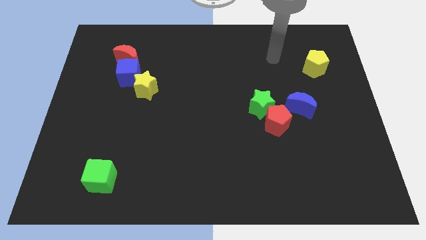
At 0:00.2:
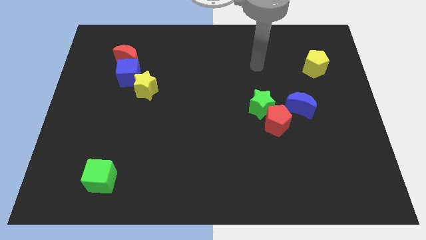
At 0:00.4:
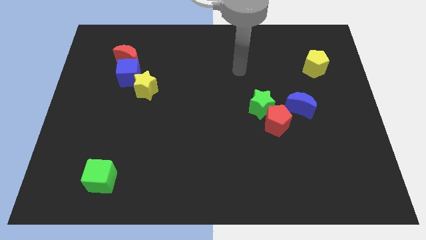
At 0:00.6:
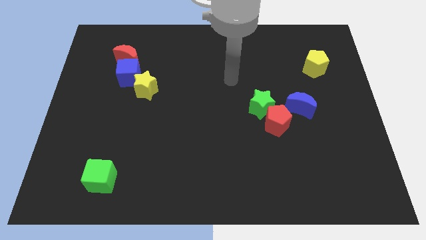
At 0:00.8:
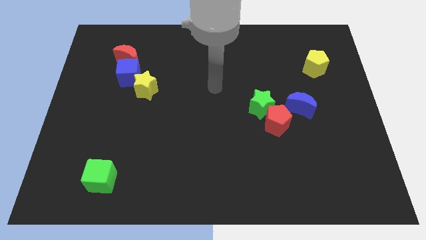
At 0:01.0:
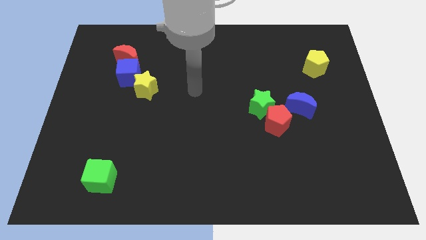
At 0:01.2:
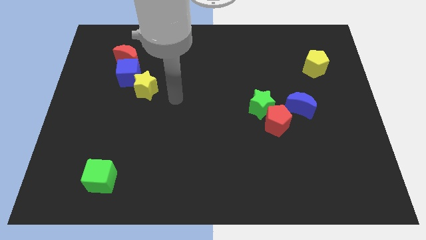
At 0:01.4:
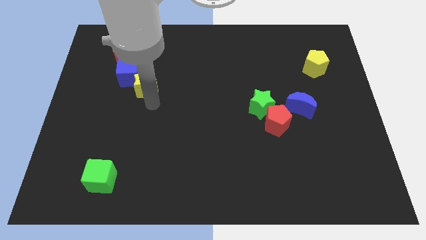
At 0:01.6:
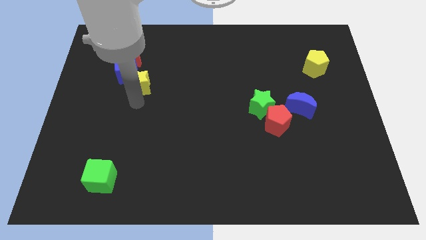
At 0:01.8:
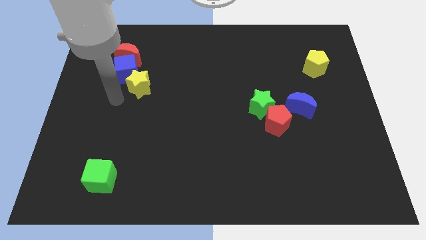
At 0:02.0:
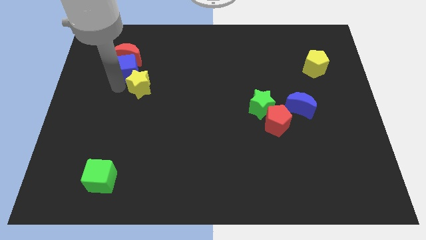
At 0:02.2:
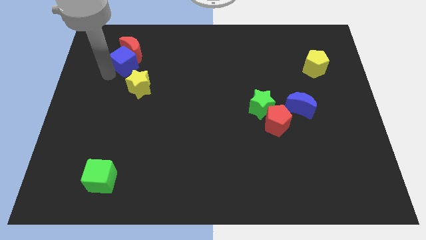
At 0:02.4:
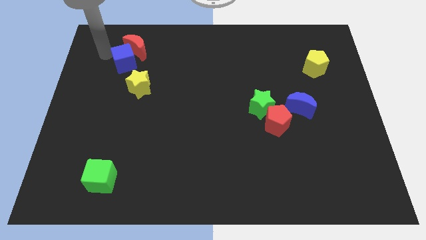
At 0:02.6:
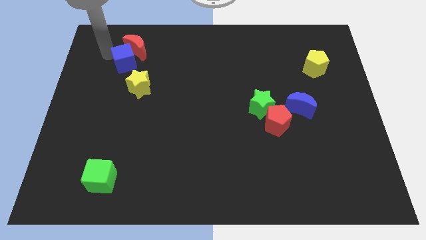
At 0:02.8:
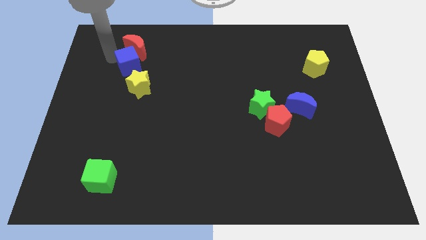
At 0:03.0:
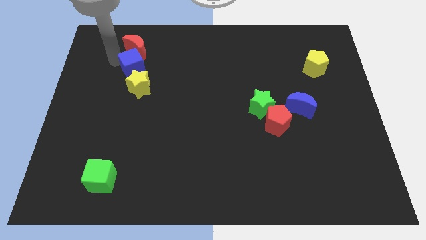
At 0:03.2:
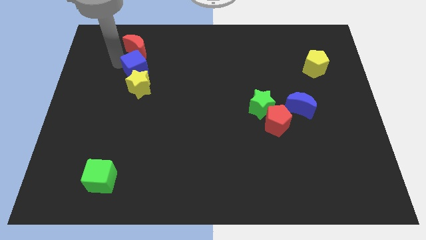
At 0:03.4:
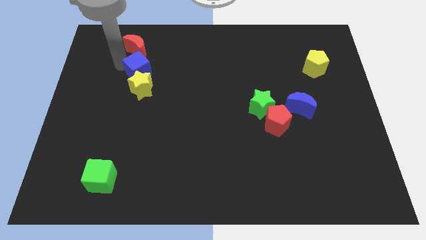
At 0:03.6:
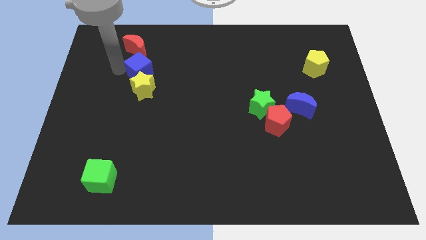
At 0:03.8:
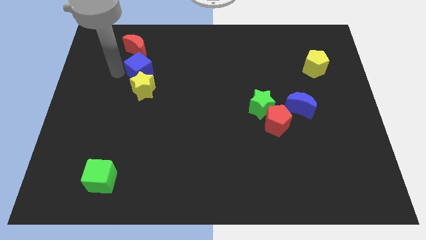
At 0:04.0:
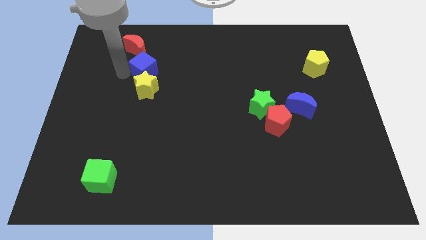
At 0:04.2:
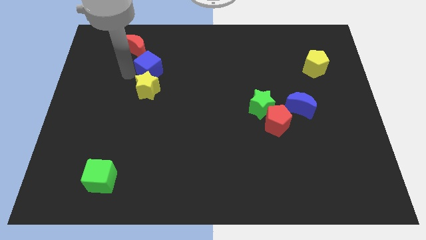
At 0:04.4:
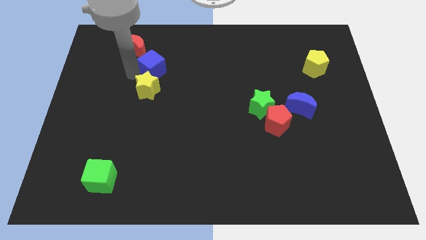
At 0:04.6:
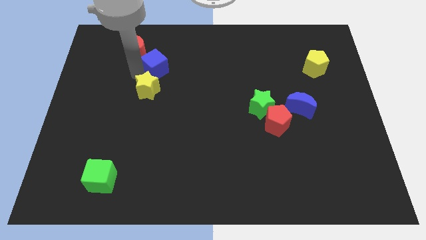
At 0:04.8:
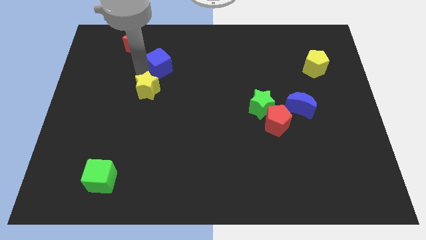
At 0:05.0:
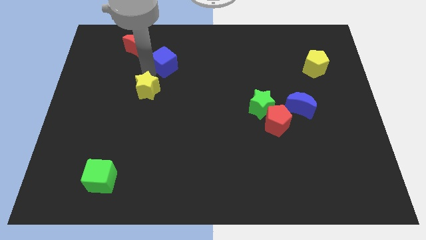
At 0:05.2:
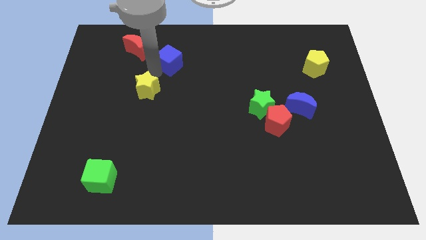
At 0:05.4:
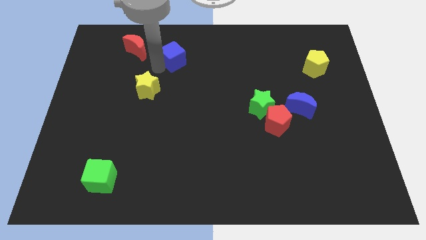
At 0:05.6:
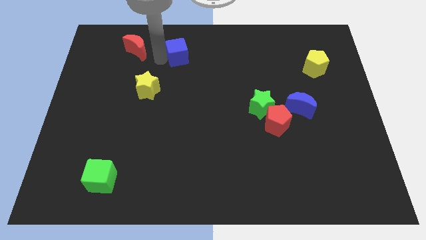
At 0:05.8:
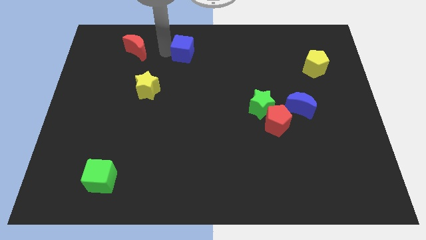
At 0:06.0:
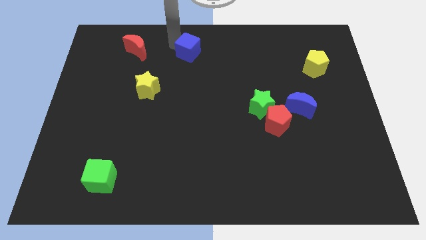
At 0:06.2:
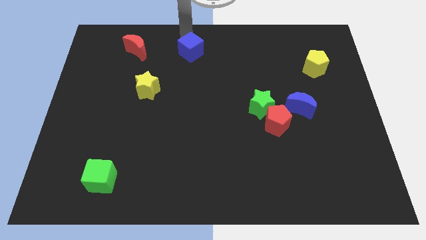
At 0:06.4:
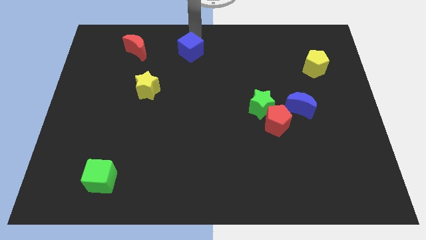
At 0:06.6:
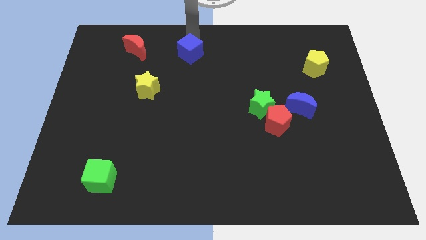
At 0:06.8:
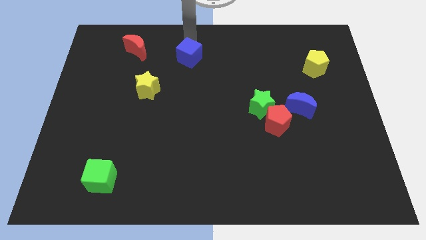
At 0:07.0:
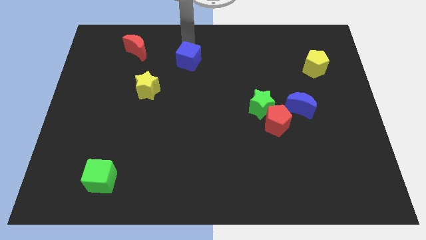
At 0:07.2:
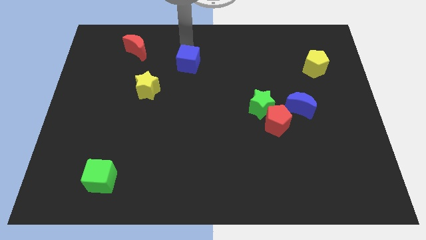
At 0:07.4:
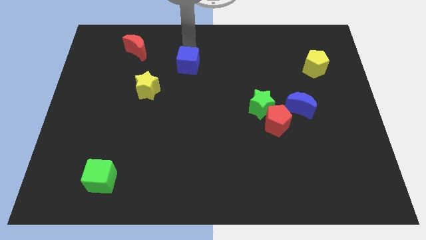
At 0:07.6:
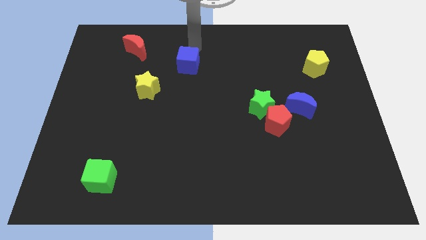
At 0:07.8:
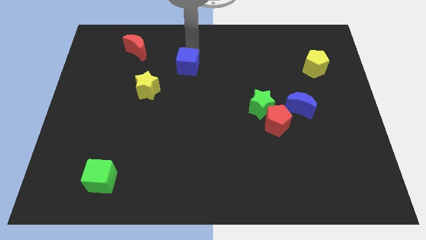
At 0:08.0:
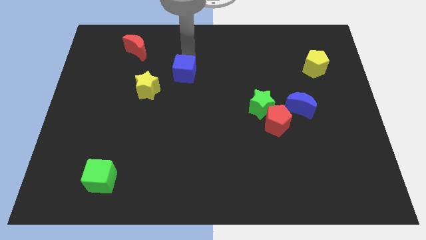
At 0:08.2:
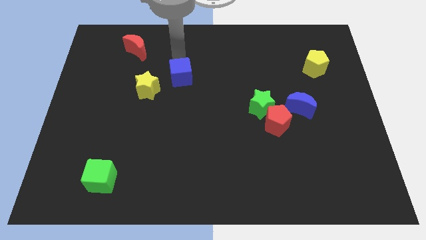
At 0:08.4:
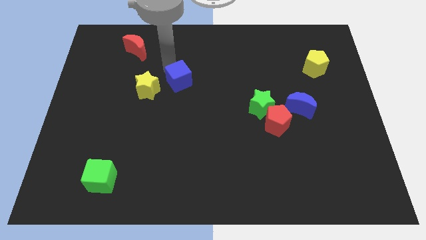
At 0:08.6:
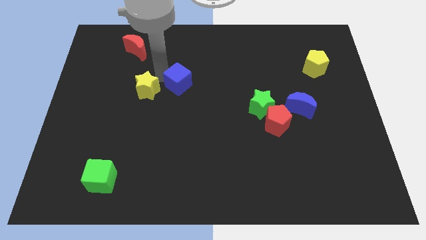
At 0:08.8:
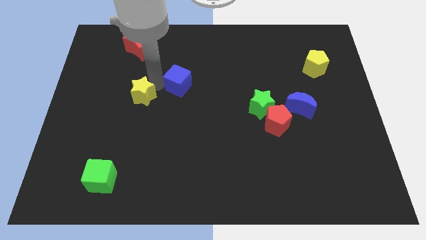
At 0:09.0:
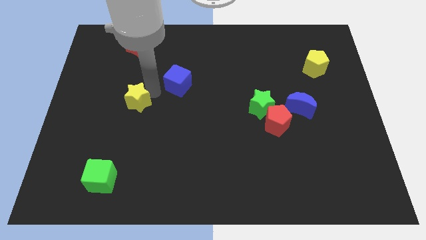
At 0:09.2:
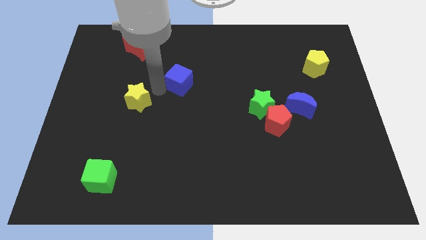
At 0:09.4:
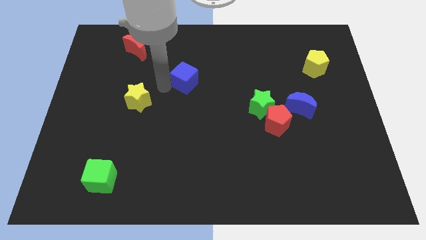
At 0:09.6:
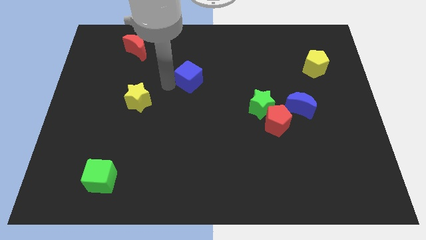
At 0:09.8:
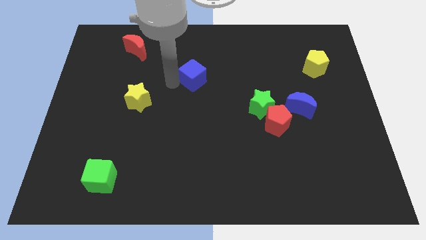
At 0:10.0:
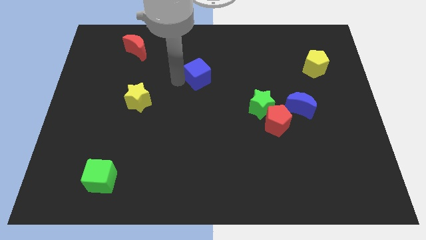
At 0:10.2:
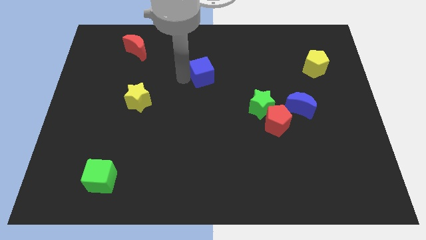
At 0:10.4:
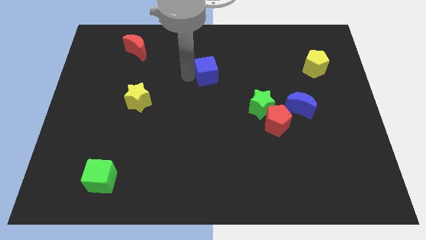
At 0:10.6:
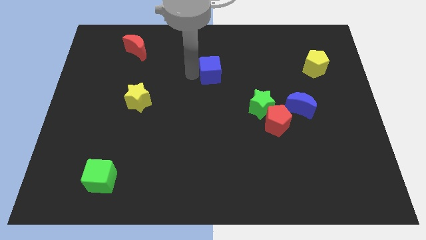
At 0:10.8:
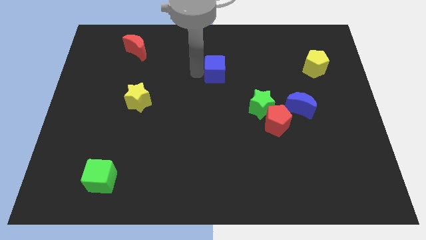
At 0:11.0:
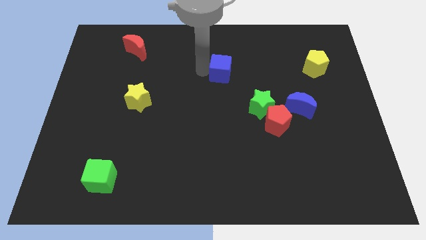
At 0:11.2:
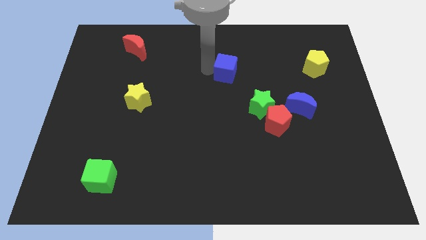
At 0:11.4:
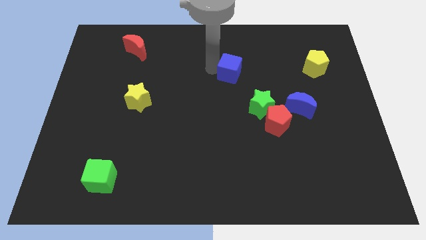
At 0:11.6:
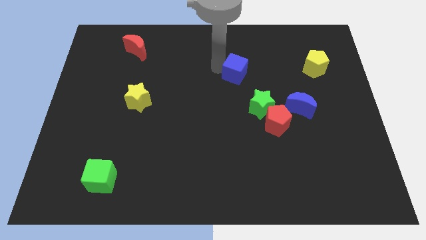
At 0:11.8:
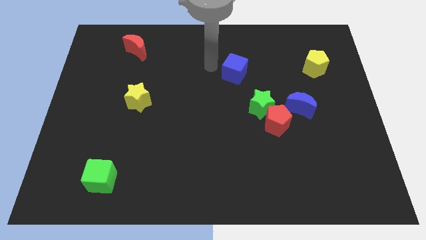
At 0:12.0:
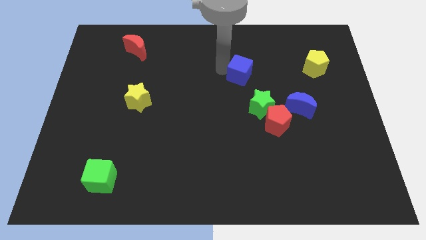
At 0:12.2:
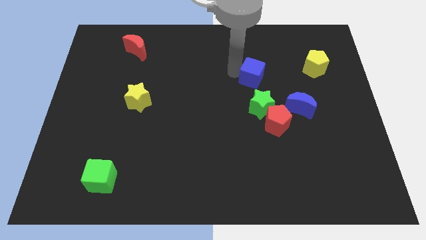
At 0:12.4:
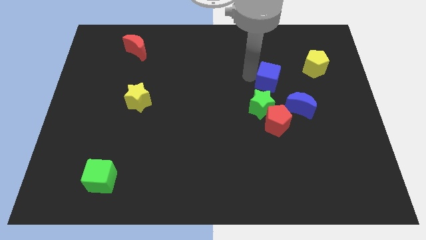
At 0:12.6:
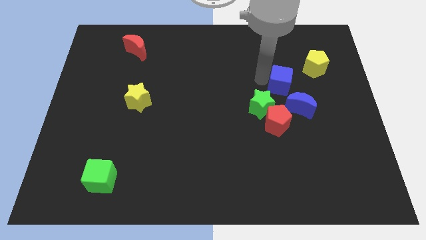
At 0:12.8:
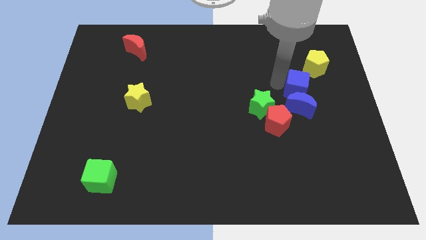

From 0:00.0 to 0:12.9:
slide the blue cube diagonally up and to the right of the blue moon
